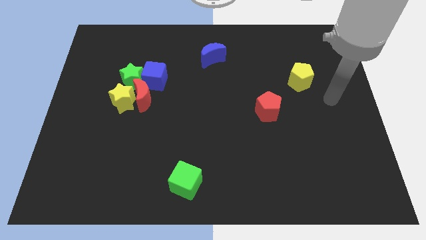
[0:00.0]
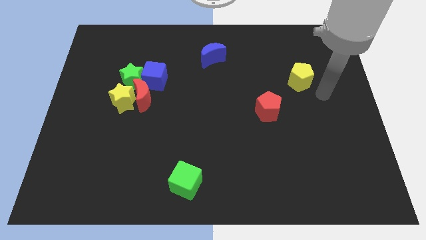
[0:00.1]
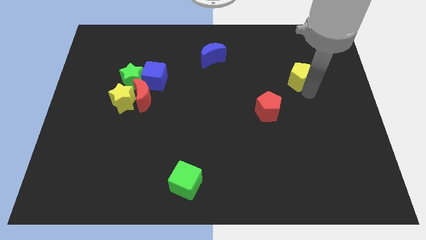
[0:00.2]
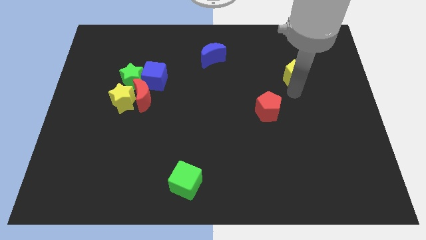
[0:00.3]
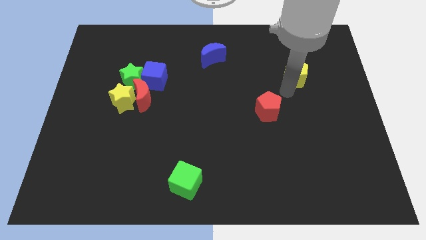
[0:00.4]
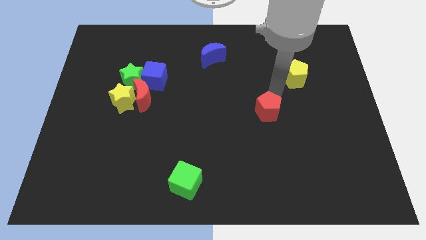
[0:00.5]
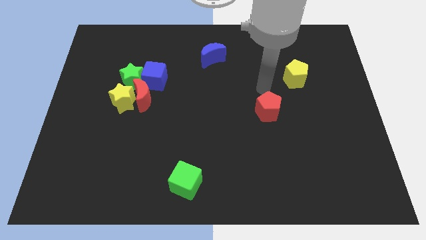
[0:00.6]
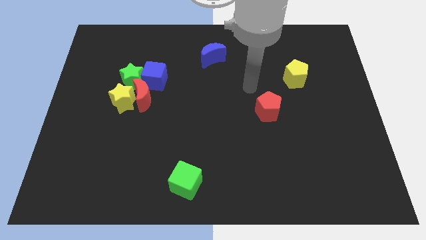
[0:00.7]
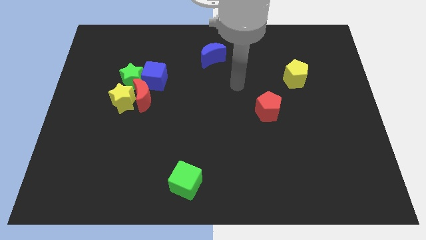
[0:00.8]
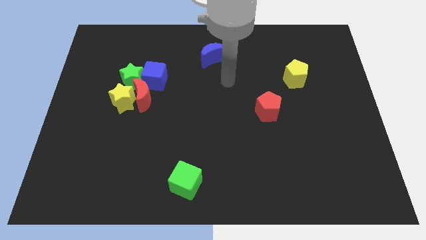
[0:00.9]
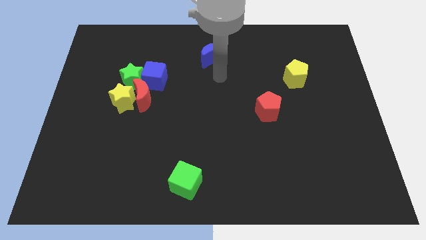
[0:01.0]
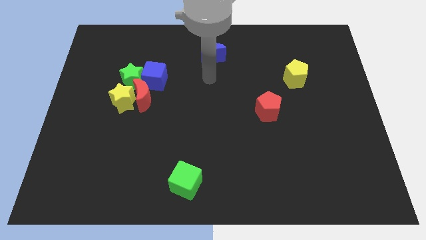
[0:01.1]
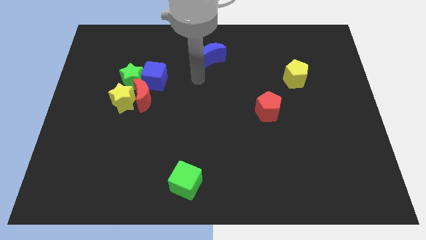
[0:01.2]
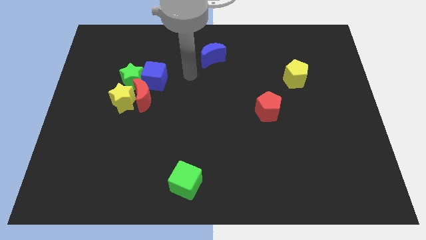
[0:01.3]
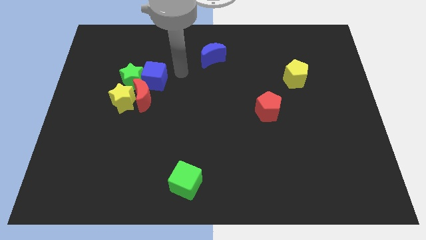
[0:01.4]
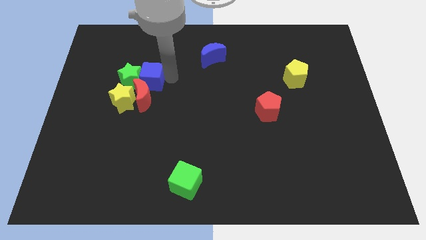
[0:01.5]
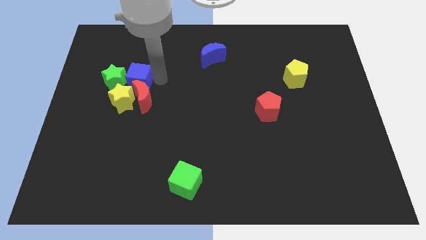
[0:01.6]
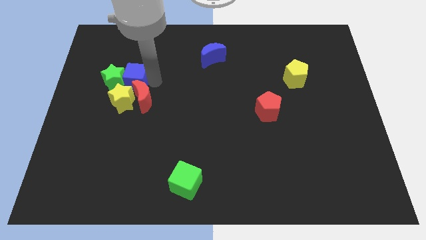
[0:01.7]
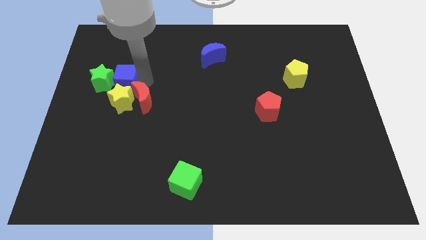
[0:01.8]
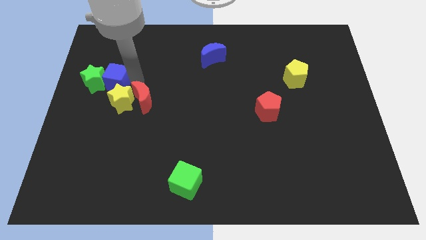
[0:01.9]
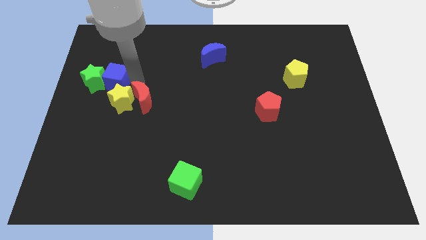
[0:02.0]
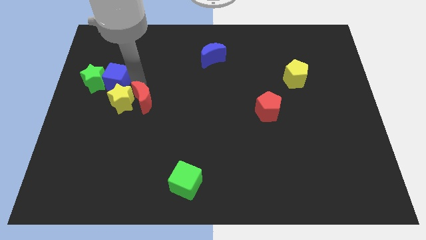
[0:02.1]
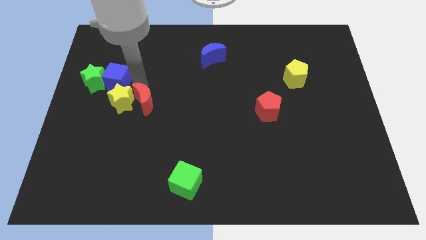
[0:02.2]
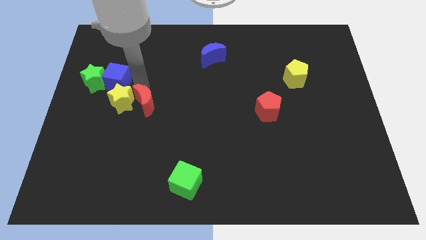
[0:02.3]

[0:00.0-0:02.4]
move the red moon away from the group of blocks

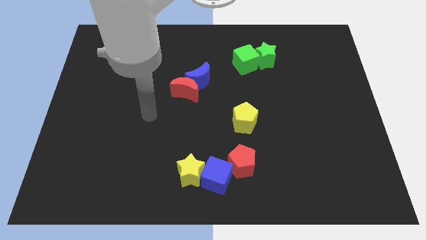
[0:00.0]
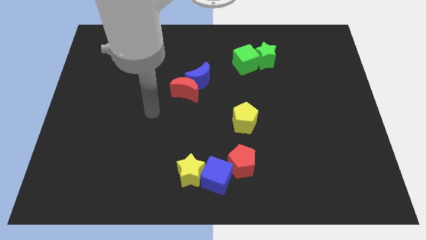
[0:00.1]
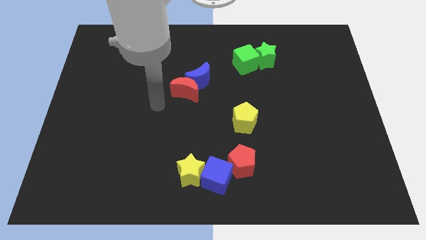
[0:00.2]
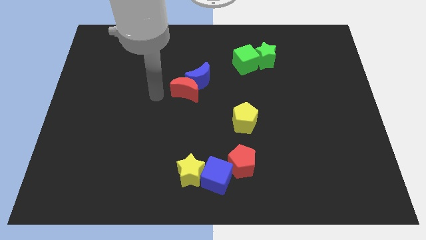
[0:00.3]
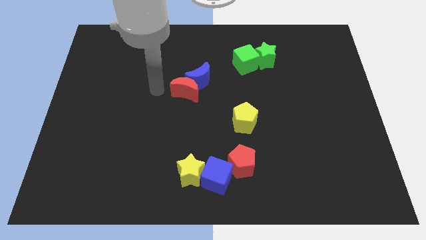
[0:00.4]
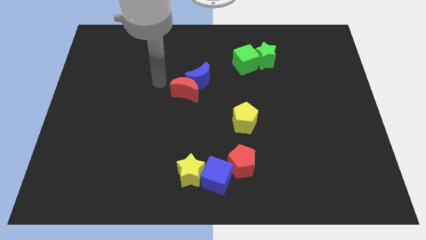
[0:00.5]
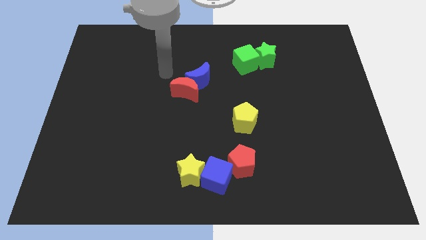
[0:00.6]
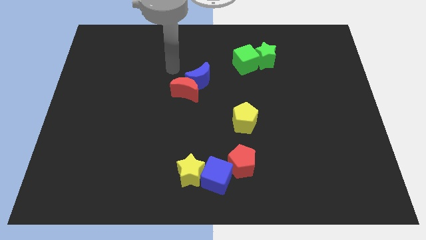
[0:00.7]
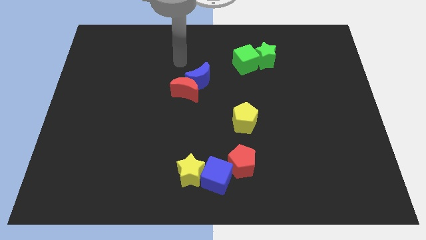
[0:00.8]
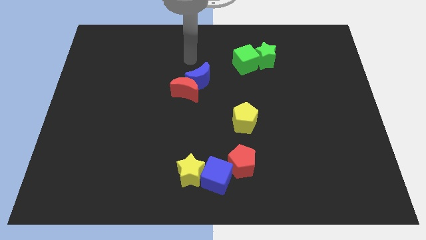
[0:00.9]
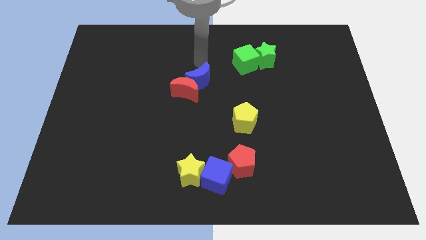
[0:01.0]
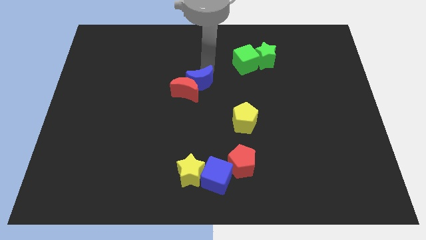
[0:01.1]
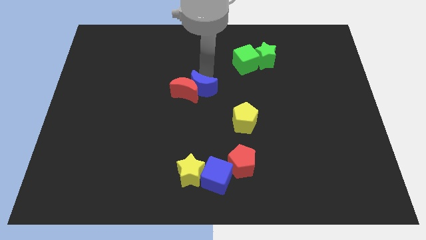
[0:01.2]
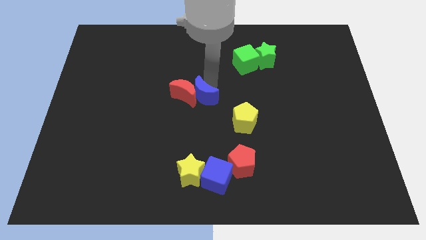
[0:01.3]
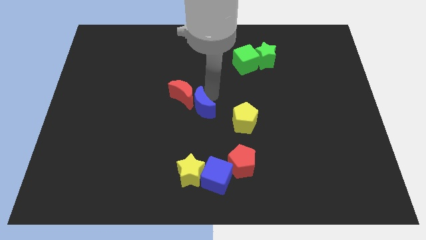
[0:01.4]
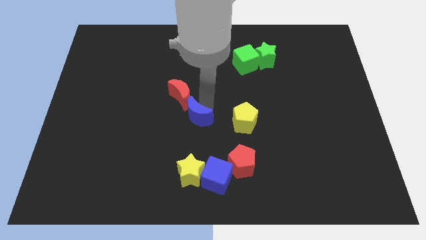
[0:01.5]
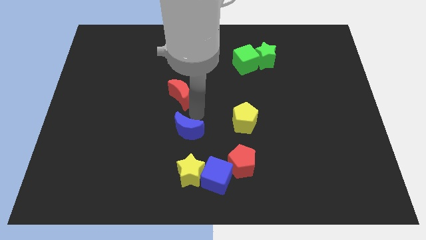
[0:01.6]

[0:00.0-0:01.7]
move the red moon away from the blue moon

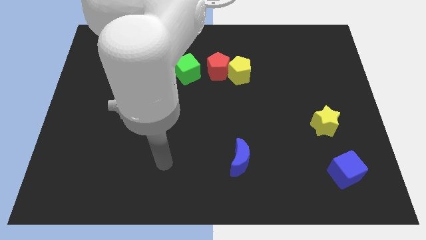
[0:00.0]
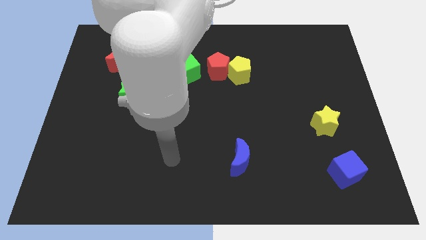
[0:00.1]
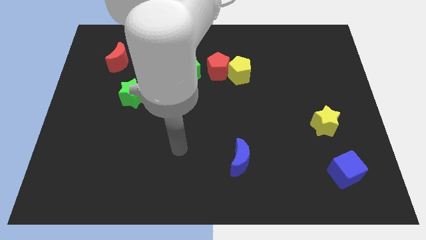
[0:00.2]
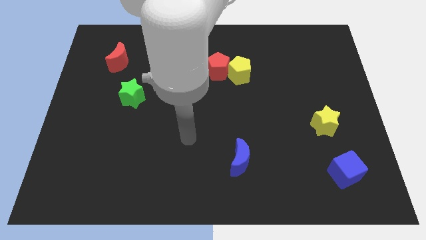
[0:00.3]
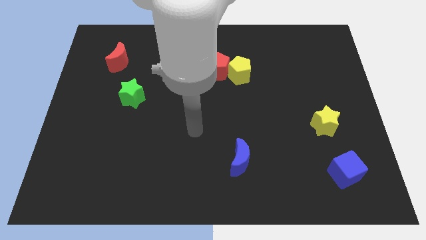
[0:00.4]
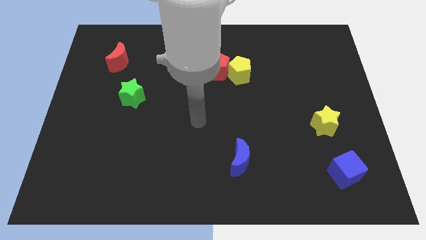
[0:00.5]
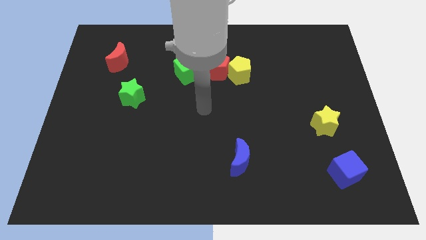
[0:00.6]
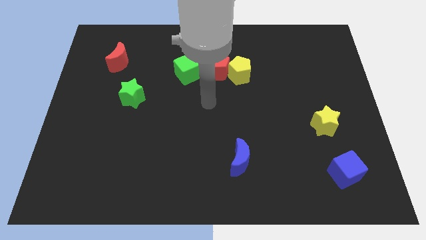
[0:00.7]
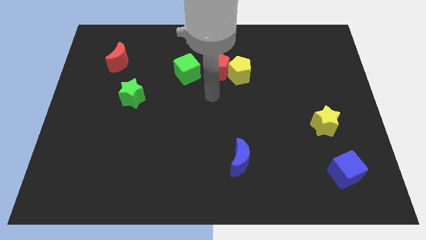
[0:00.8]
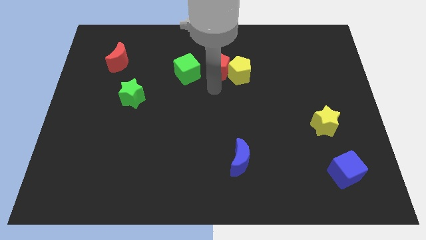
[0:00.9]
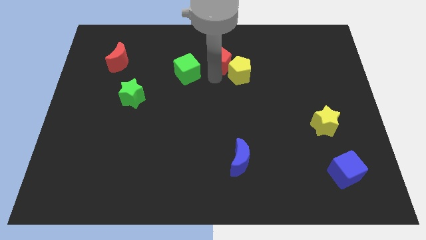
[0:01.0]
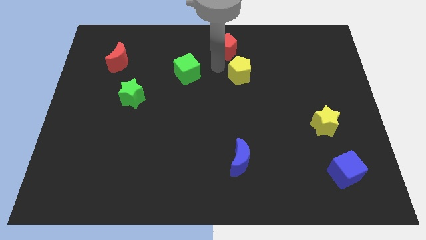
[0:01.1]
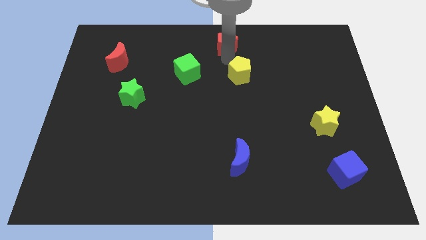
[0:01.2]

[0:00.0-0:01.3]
separate the yellow pentagon from the red pentagon

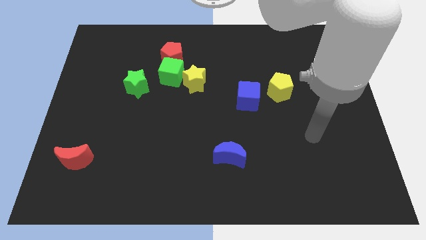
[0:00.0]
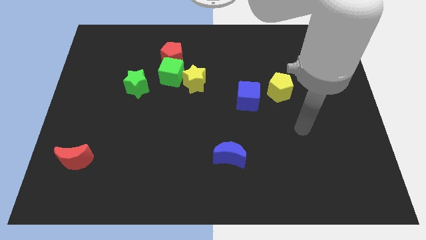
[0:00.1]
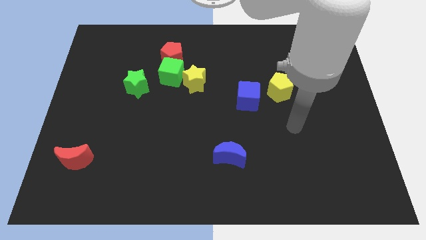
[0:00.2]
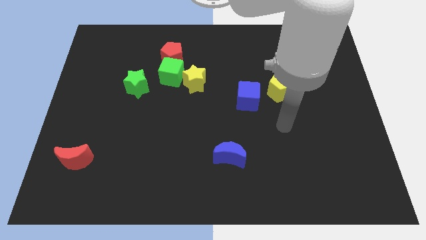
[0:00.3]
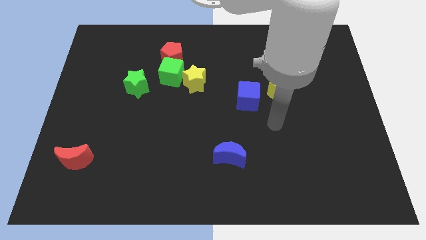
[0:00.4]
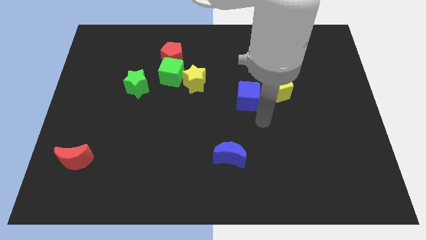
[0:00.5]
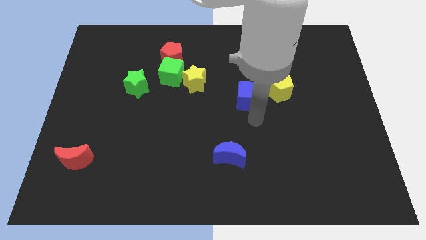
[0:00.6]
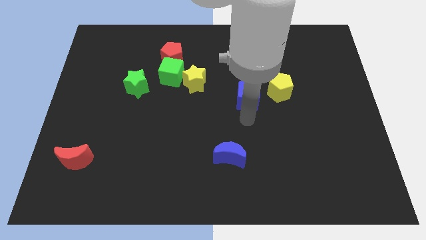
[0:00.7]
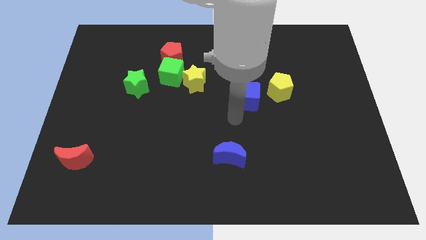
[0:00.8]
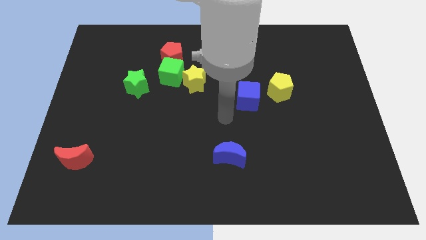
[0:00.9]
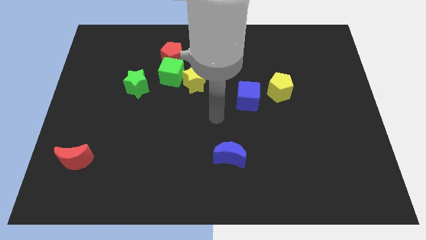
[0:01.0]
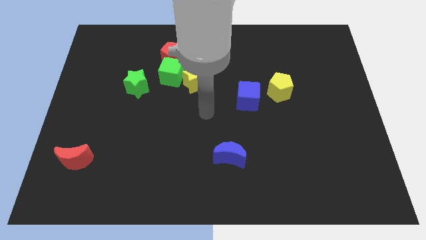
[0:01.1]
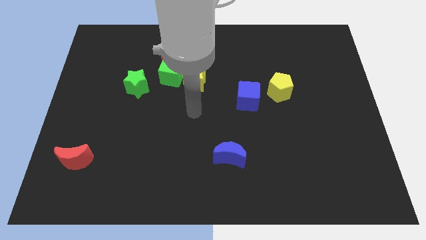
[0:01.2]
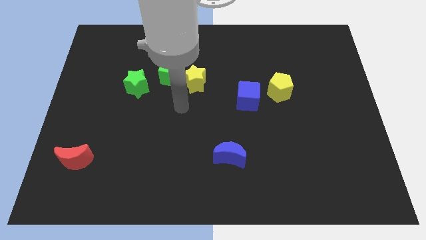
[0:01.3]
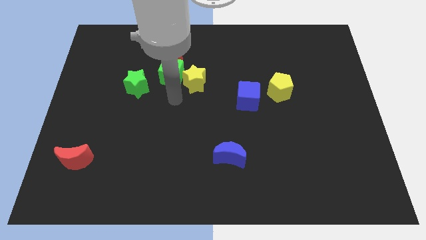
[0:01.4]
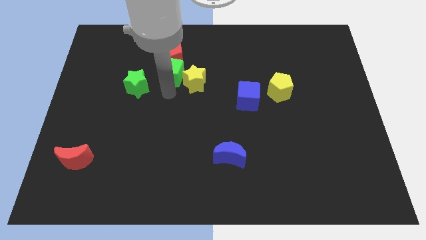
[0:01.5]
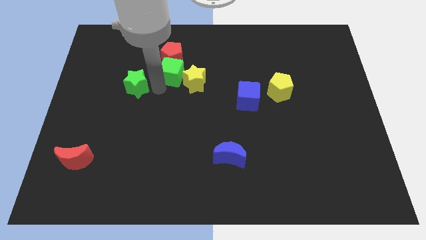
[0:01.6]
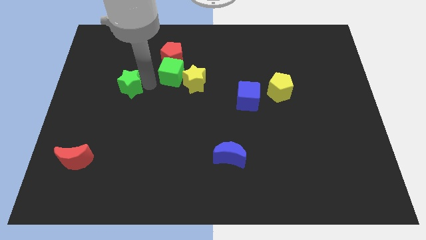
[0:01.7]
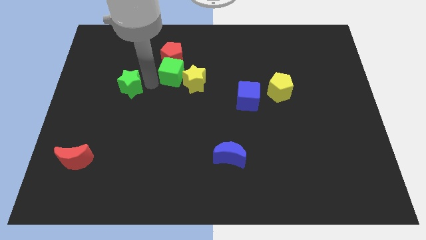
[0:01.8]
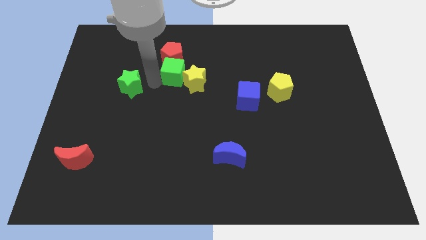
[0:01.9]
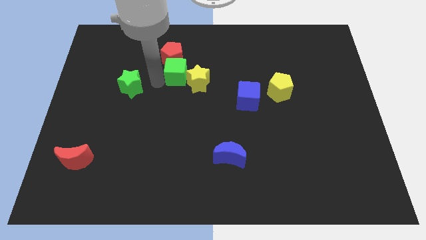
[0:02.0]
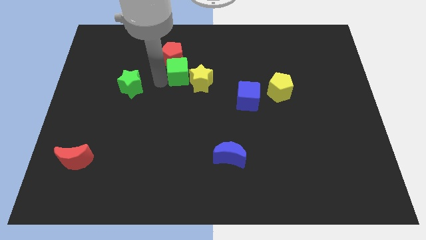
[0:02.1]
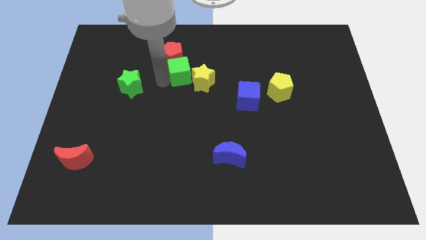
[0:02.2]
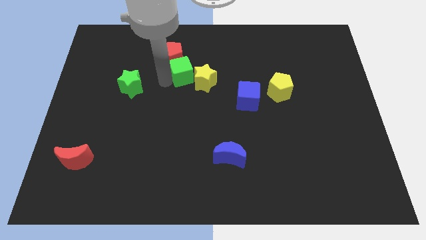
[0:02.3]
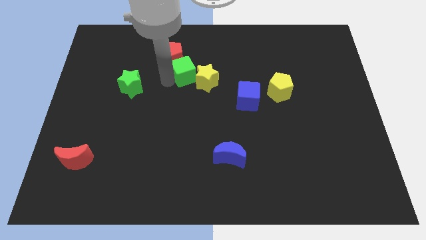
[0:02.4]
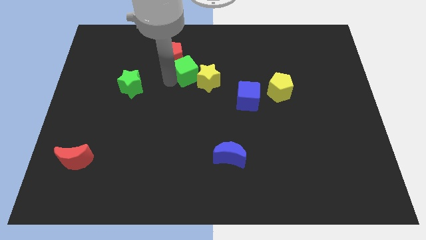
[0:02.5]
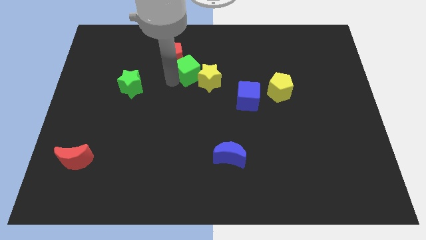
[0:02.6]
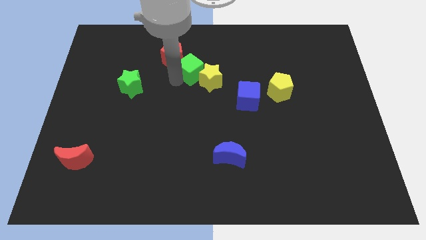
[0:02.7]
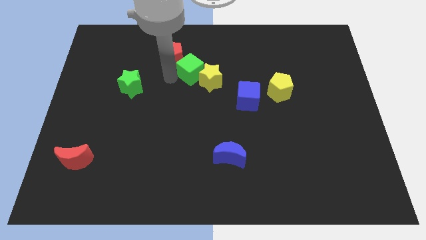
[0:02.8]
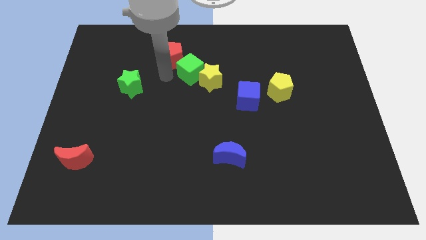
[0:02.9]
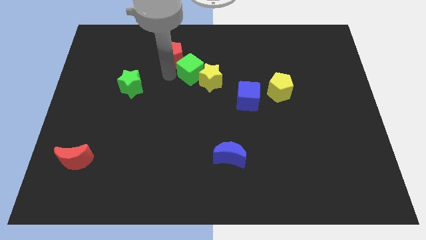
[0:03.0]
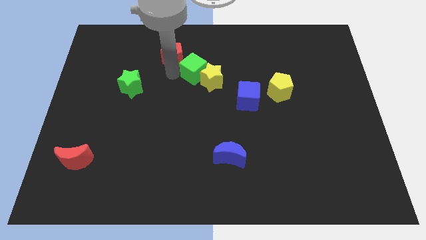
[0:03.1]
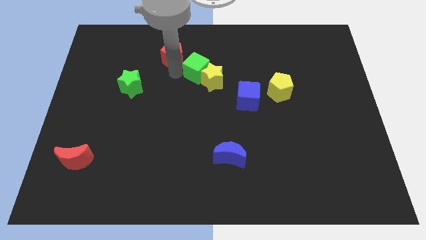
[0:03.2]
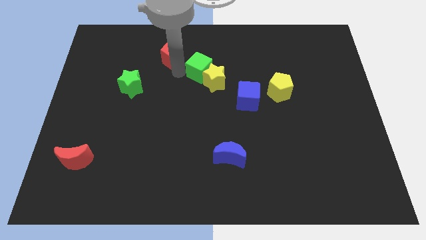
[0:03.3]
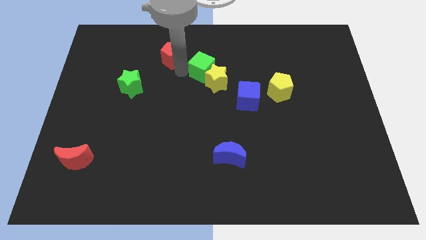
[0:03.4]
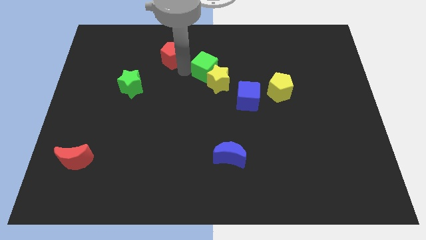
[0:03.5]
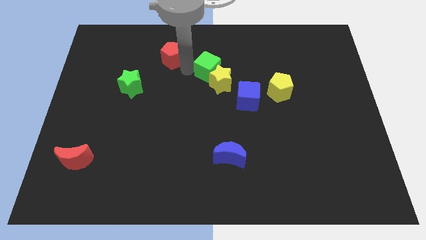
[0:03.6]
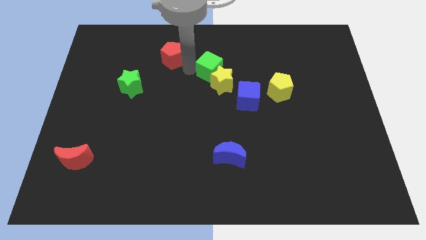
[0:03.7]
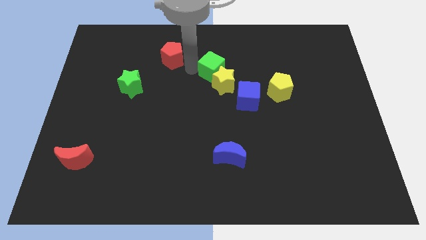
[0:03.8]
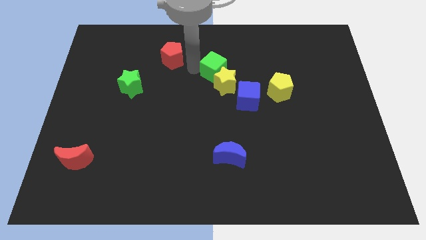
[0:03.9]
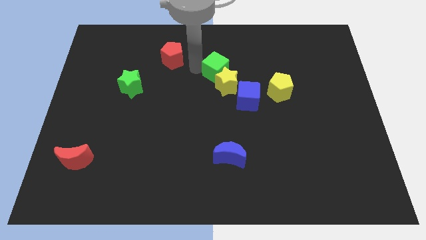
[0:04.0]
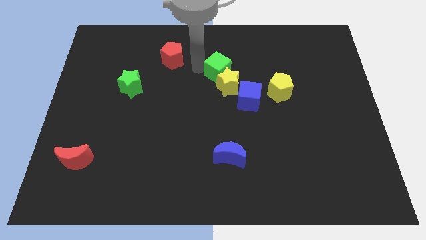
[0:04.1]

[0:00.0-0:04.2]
move the green cube away from the group
